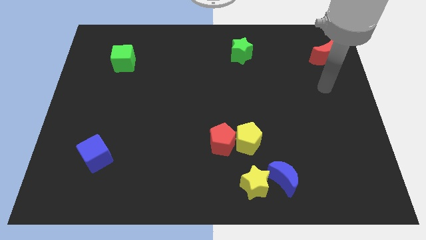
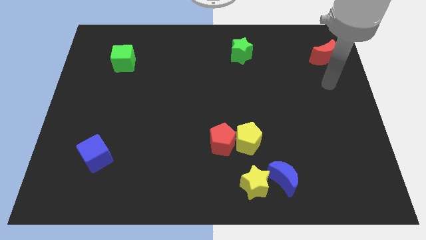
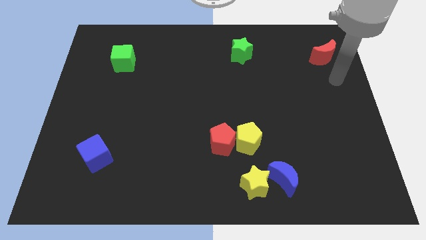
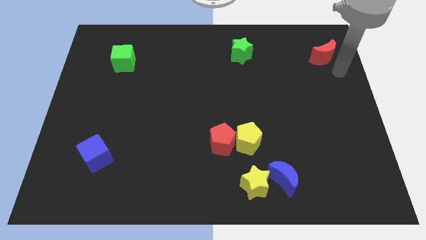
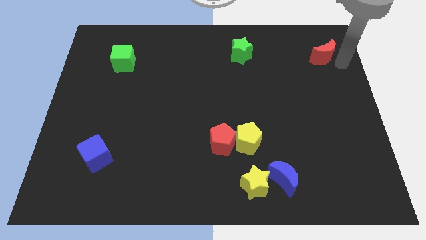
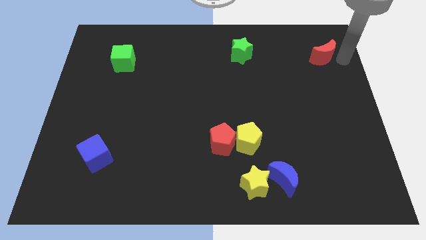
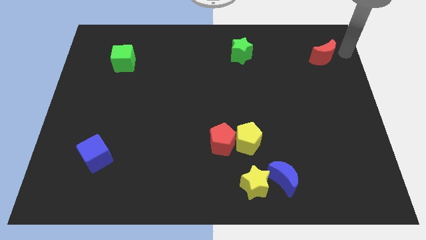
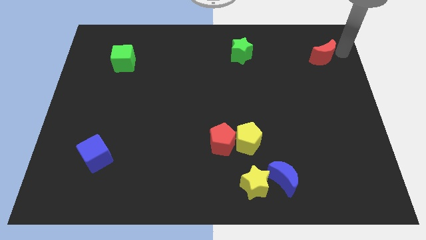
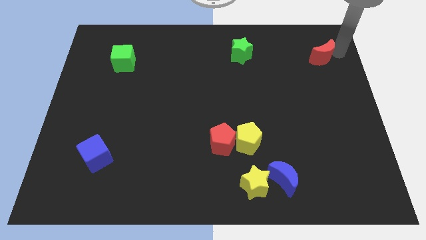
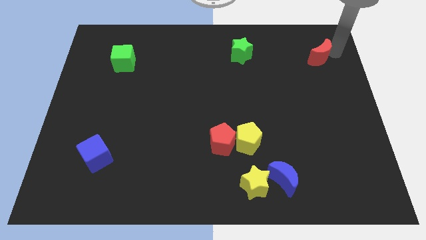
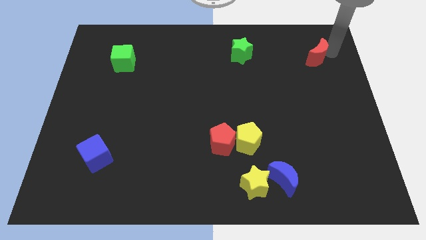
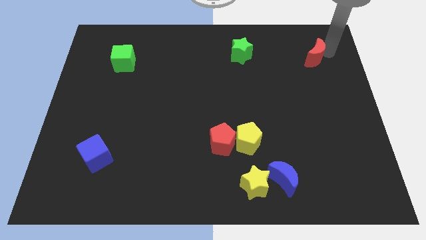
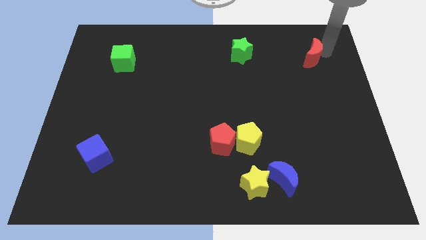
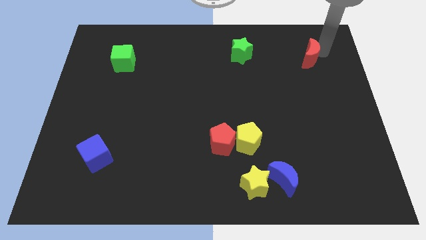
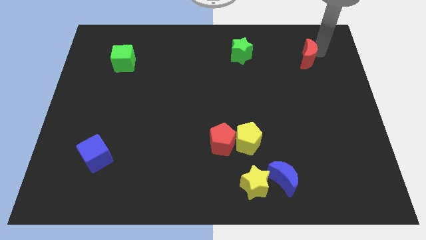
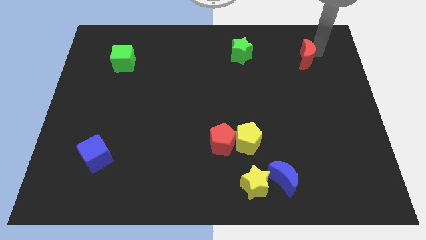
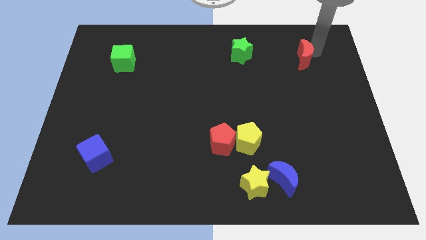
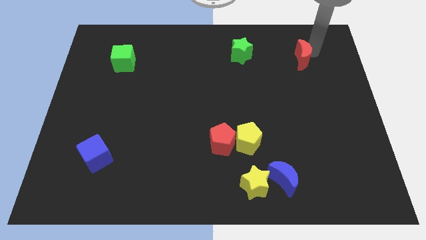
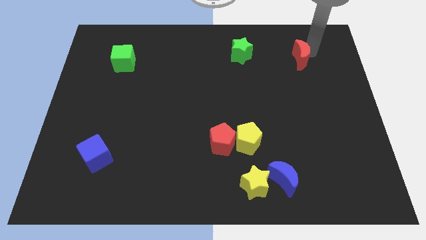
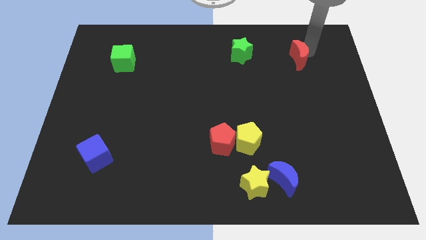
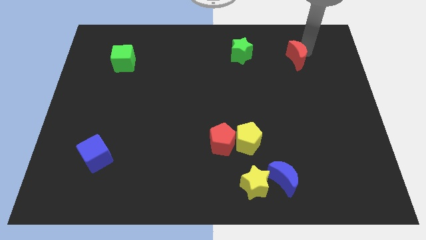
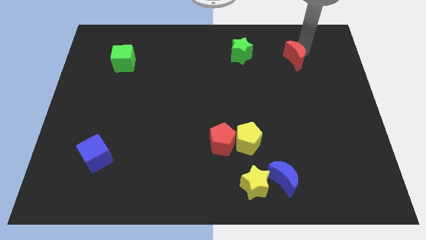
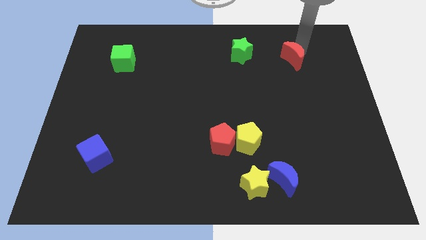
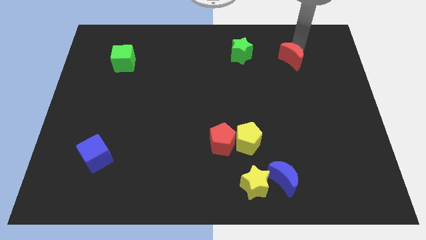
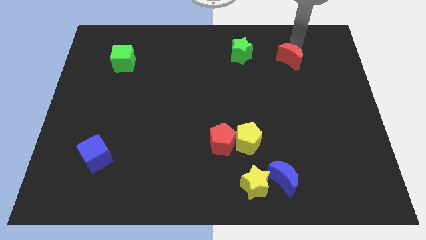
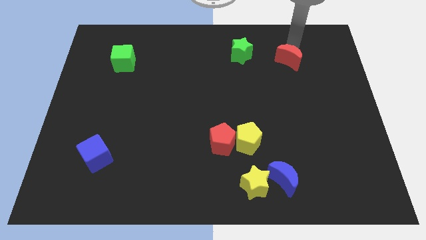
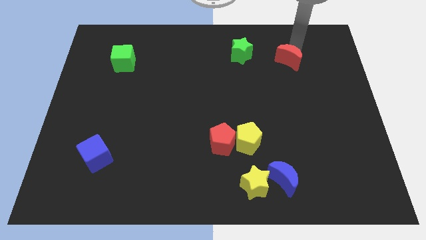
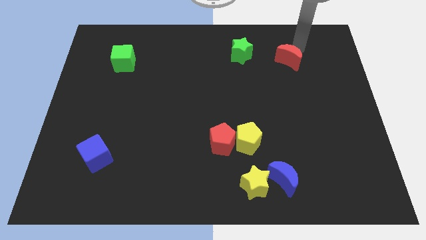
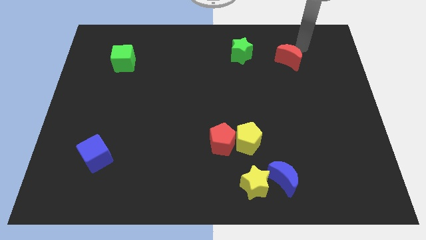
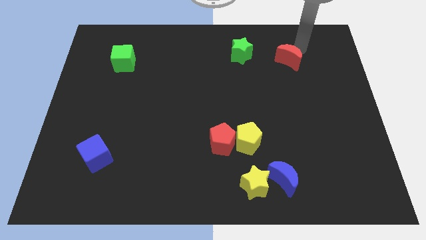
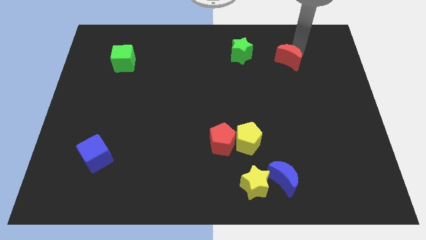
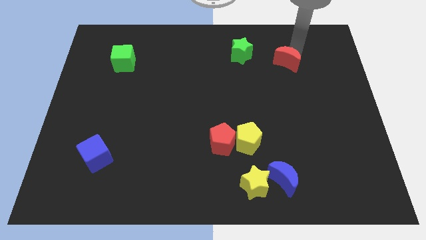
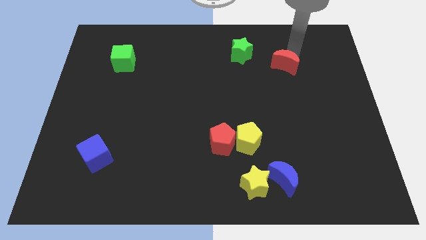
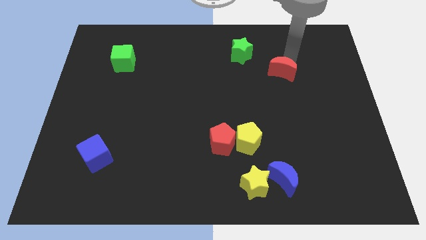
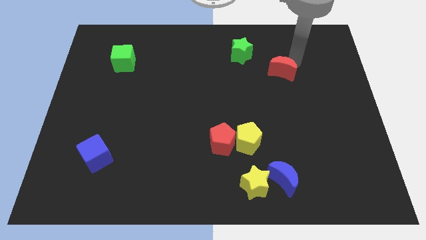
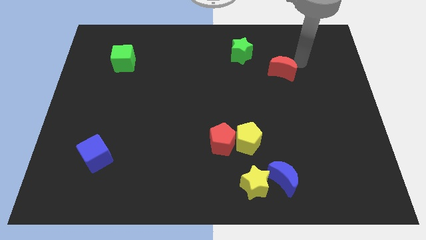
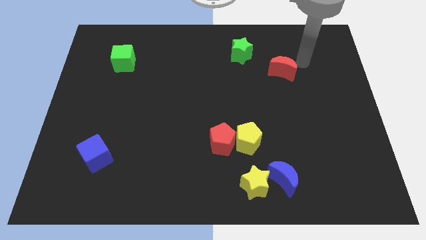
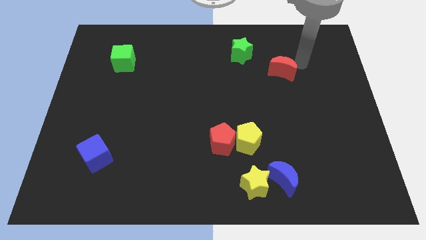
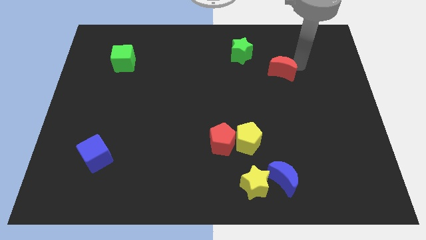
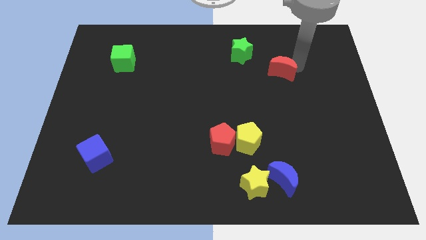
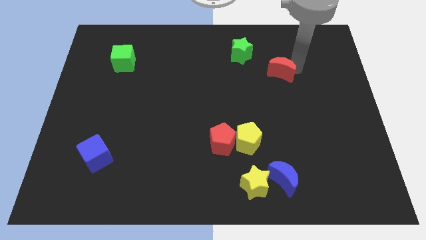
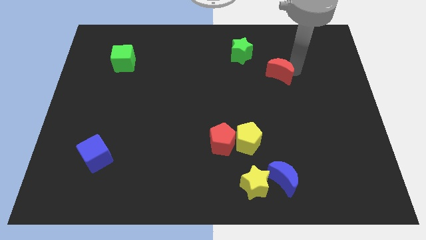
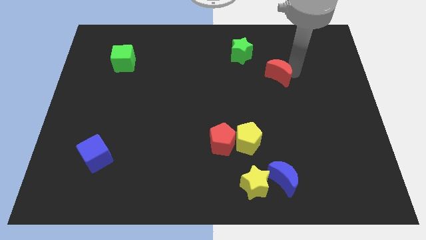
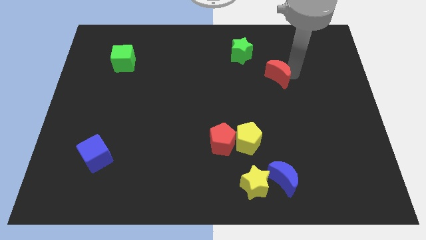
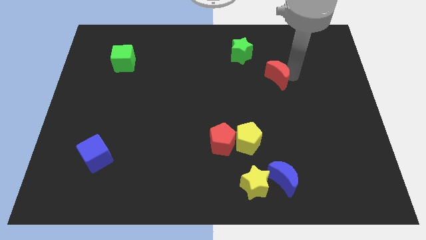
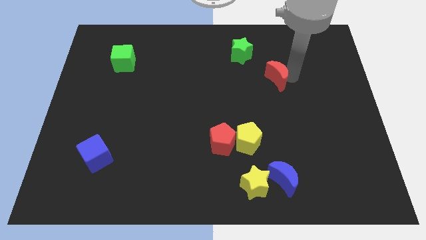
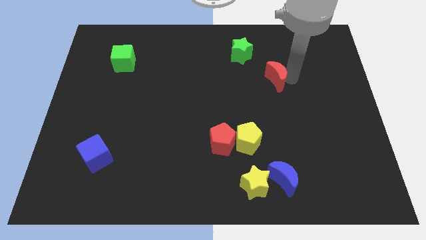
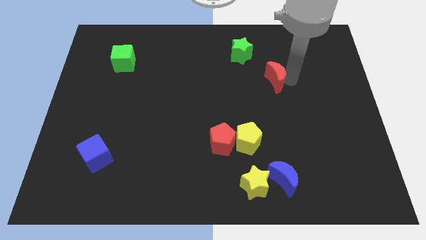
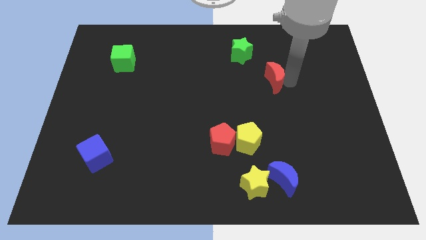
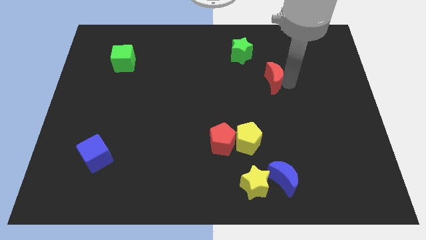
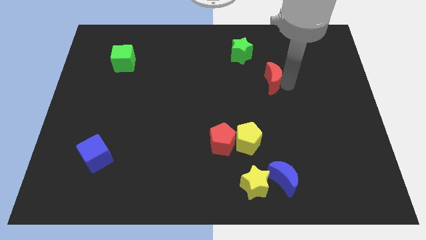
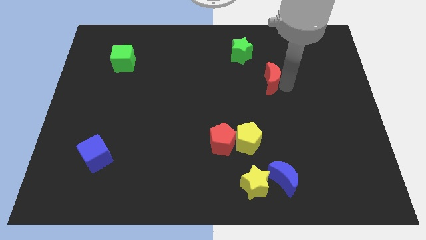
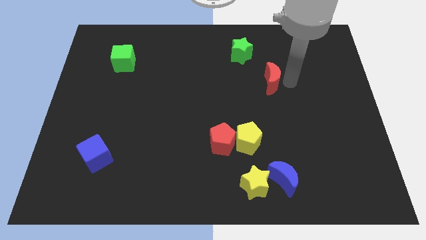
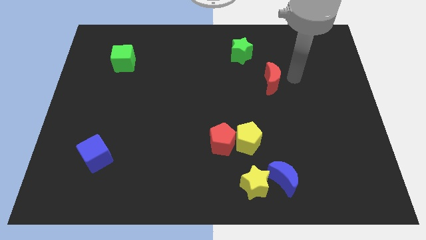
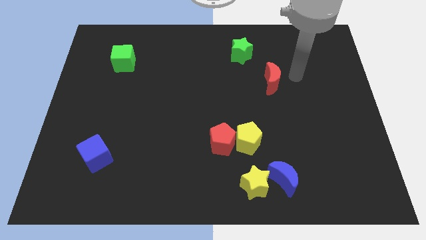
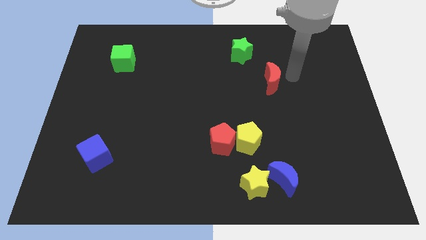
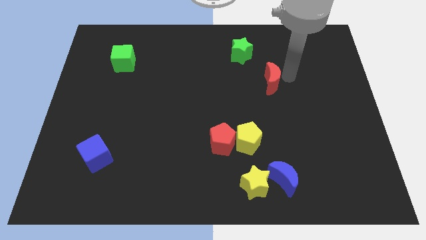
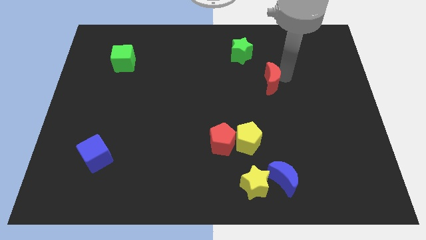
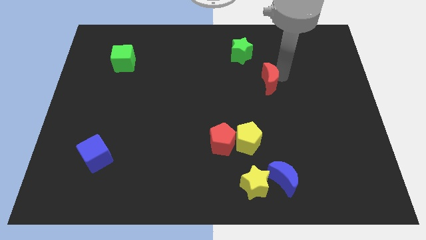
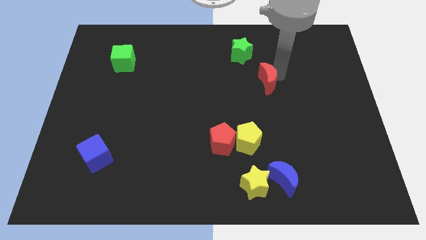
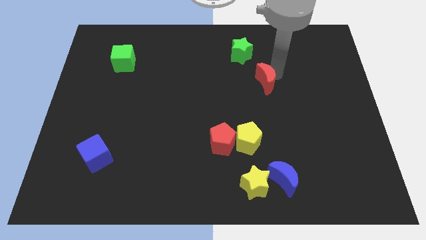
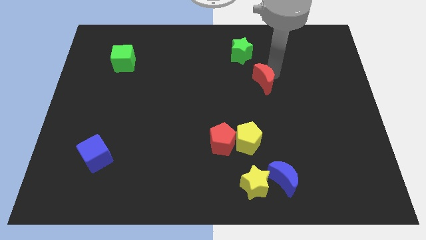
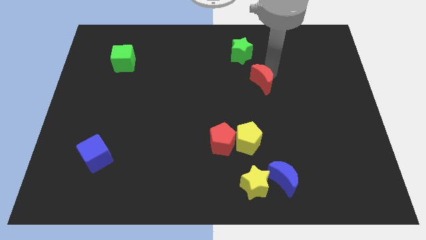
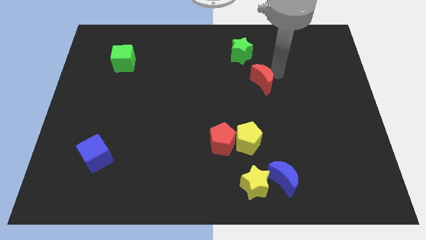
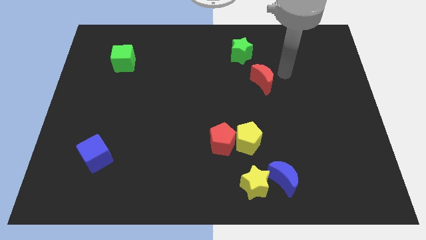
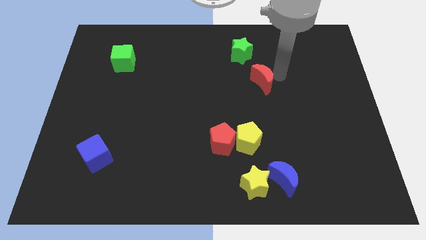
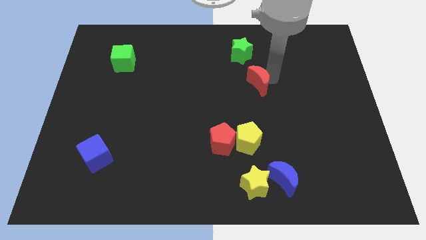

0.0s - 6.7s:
slide the red moon to the middle
